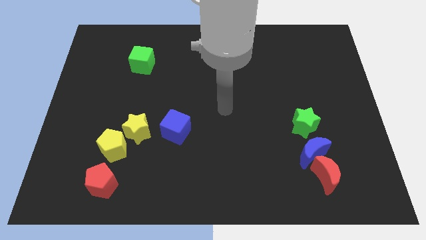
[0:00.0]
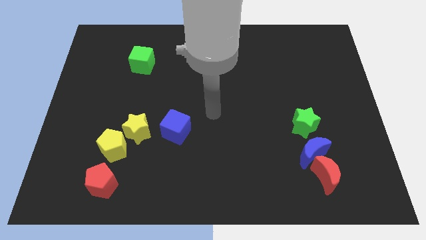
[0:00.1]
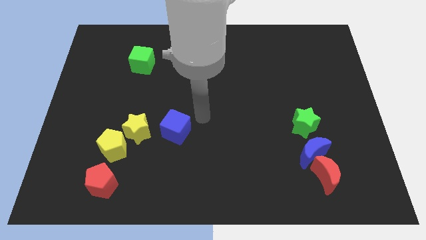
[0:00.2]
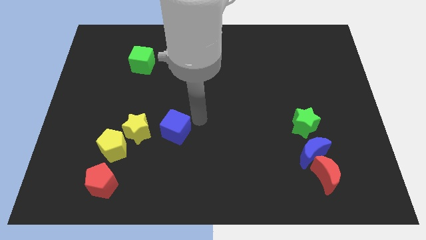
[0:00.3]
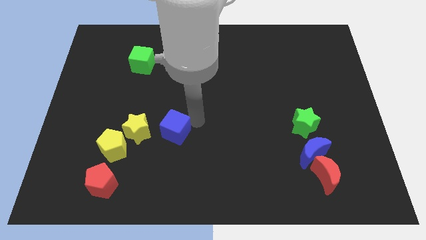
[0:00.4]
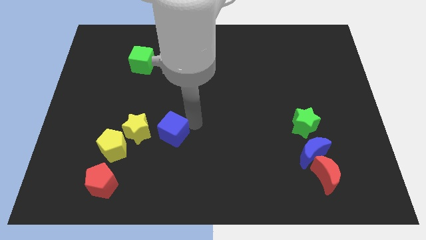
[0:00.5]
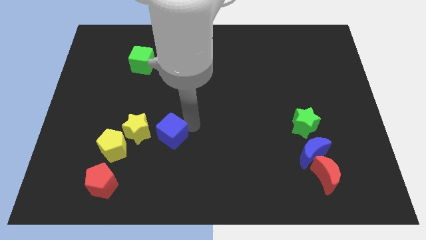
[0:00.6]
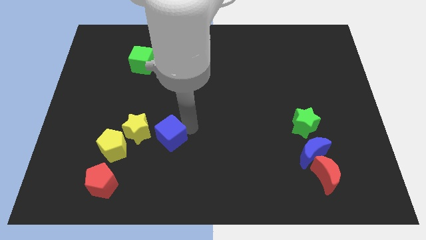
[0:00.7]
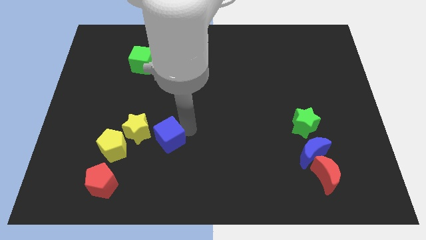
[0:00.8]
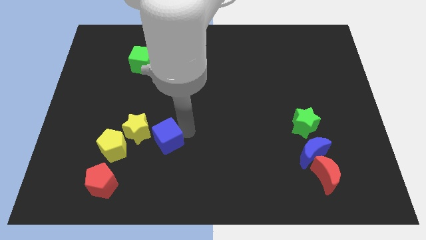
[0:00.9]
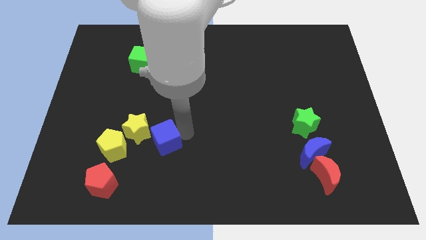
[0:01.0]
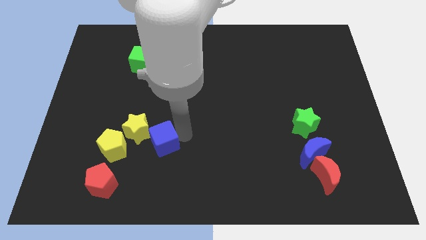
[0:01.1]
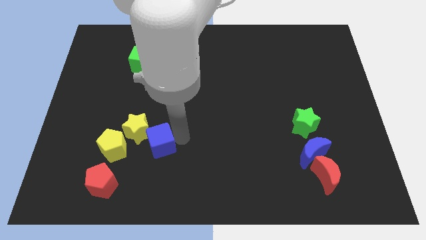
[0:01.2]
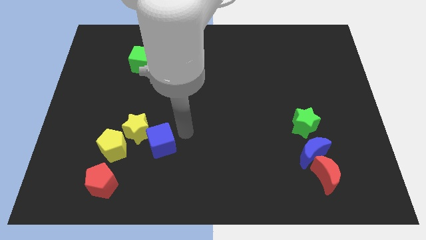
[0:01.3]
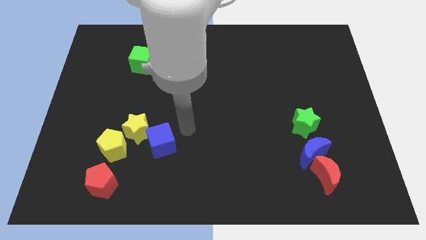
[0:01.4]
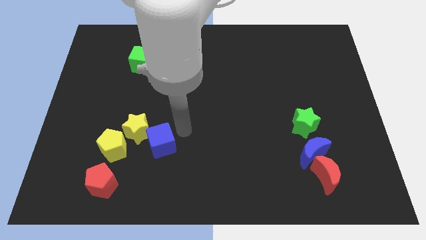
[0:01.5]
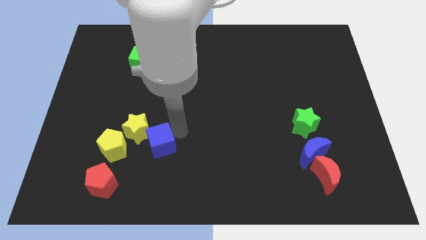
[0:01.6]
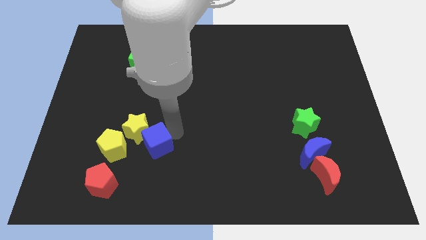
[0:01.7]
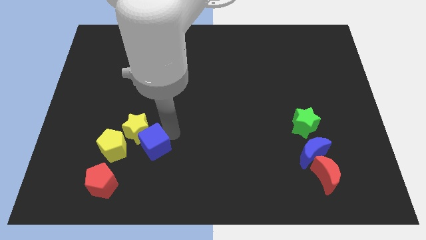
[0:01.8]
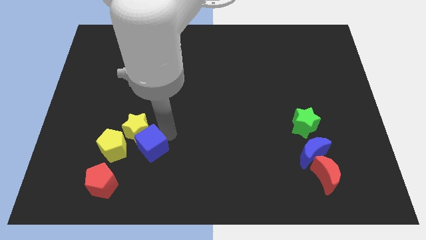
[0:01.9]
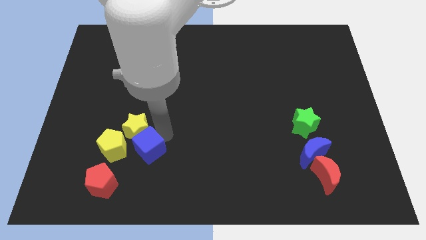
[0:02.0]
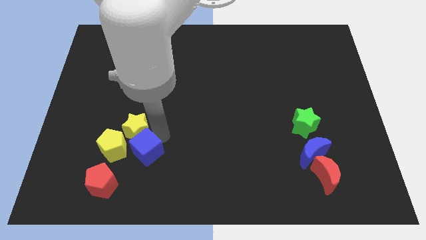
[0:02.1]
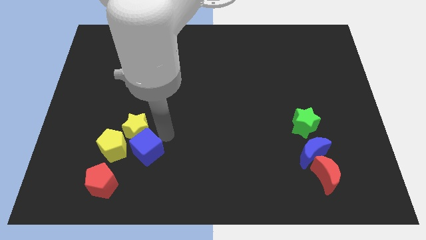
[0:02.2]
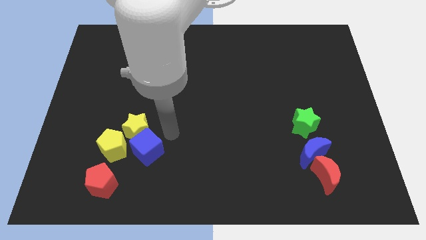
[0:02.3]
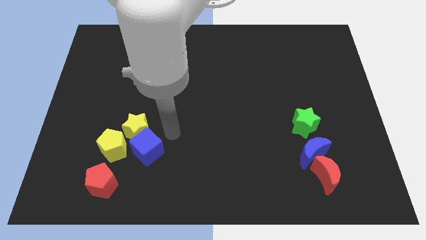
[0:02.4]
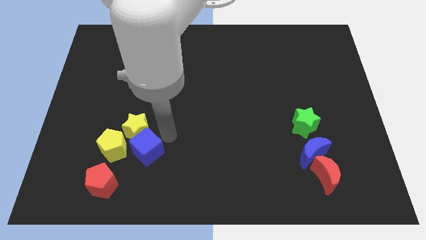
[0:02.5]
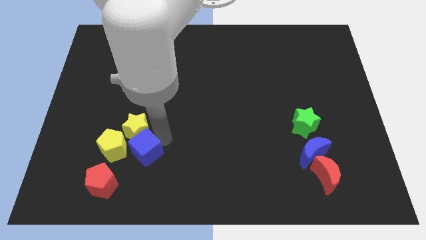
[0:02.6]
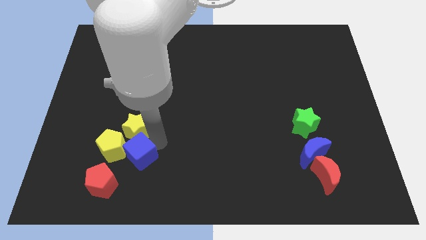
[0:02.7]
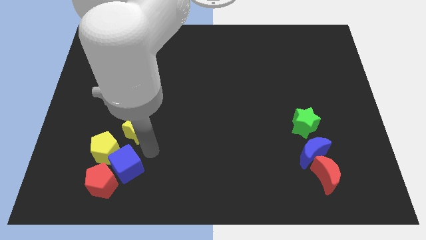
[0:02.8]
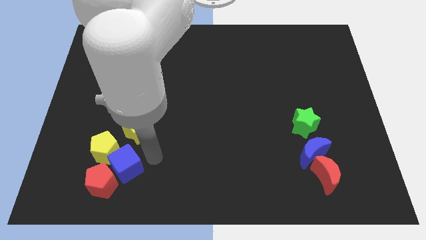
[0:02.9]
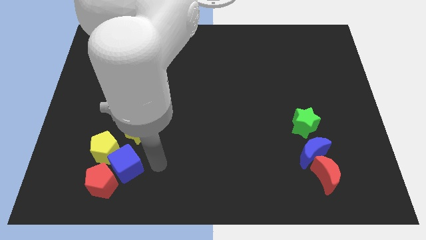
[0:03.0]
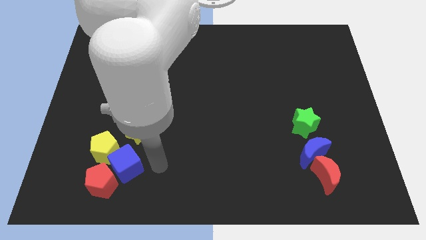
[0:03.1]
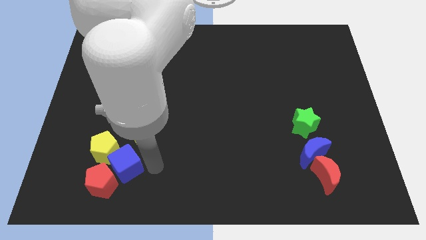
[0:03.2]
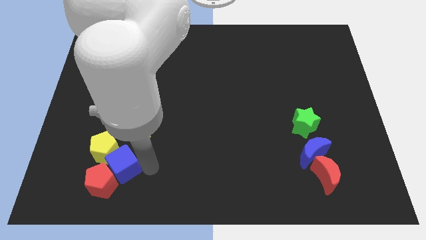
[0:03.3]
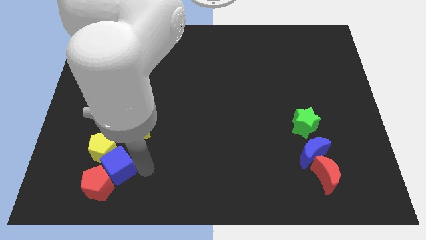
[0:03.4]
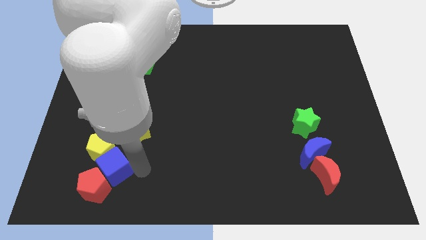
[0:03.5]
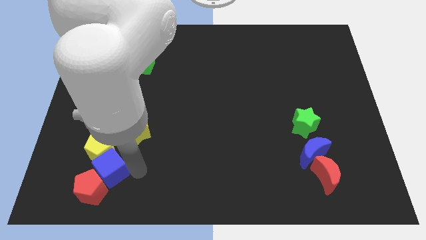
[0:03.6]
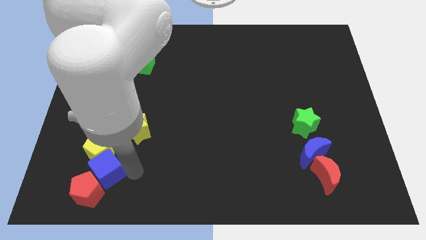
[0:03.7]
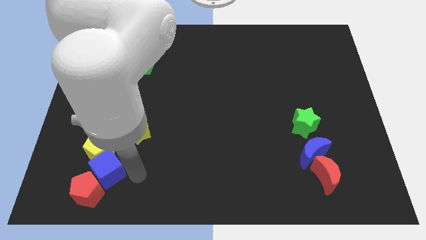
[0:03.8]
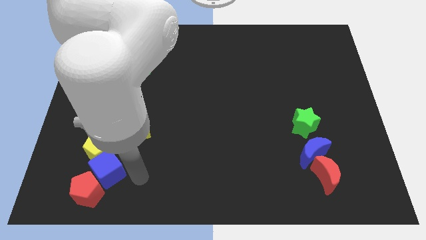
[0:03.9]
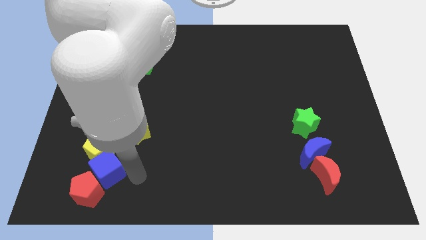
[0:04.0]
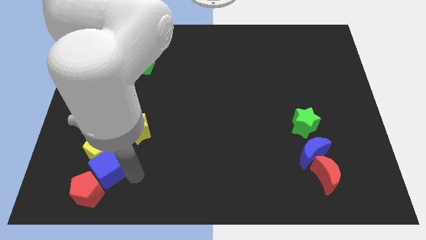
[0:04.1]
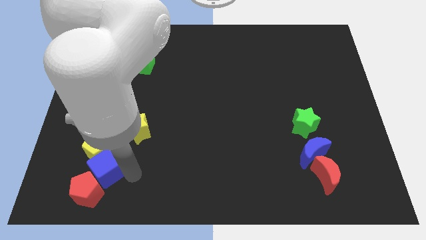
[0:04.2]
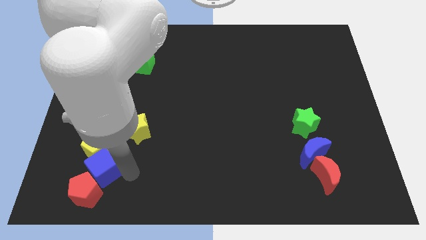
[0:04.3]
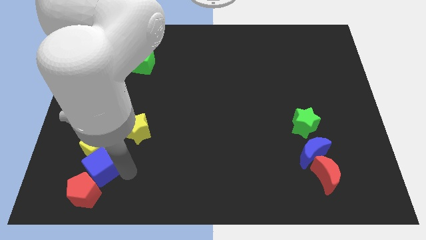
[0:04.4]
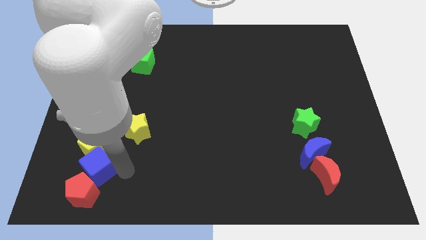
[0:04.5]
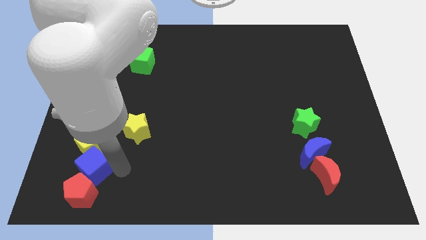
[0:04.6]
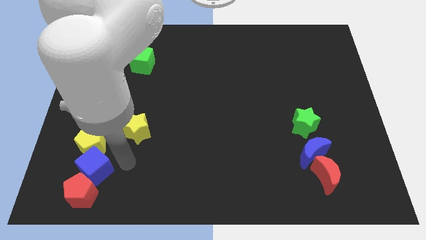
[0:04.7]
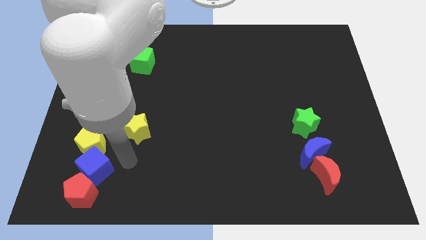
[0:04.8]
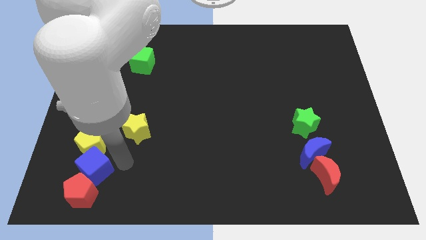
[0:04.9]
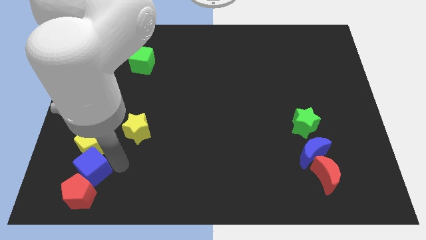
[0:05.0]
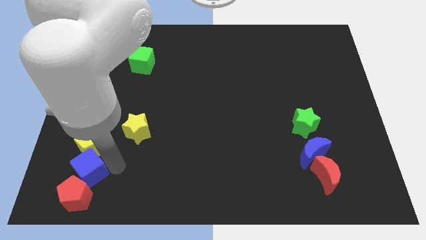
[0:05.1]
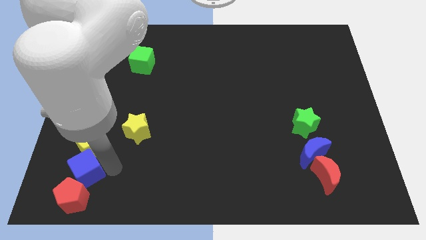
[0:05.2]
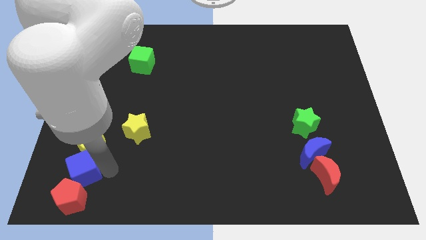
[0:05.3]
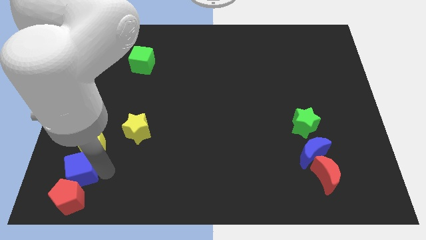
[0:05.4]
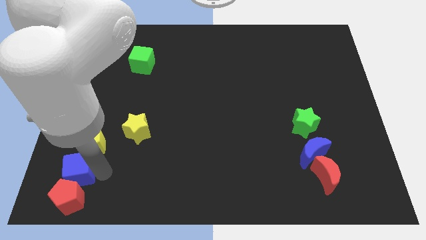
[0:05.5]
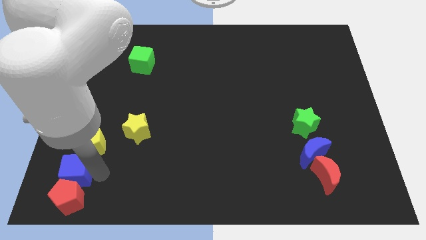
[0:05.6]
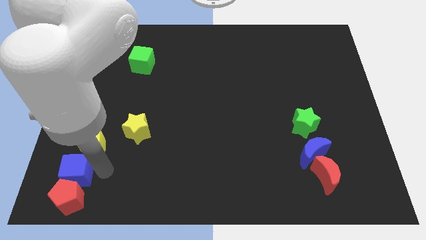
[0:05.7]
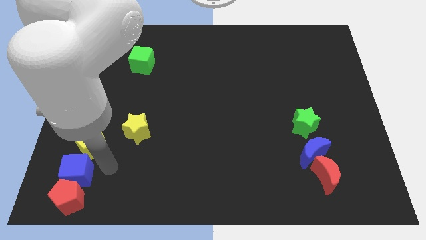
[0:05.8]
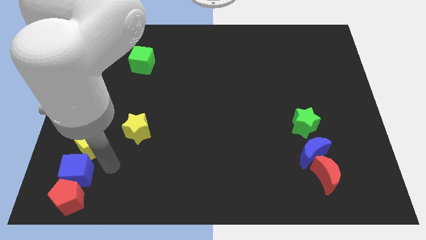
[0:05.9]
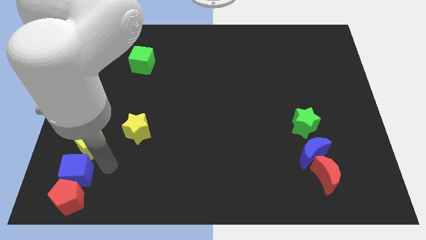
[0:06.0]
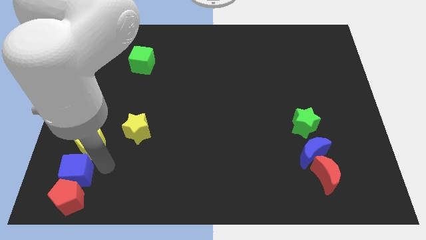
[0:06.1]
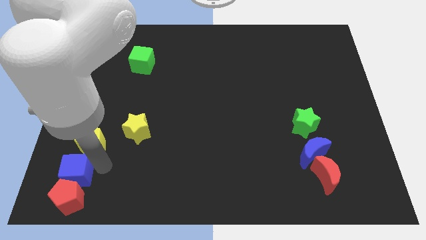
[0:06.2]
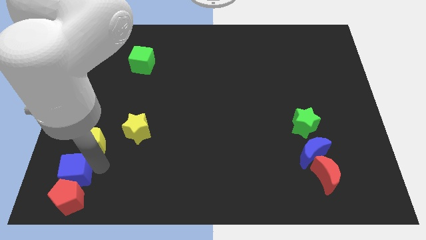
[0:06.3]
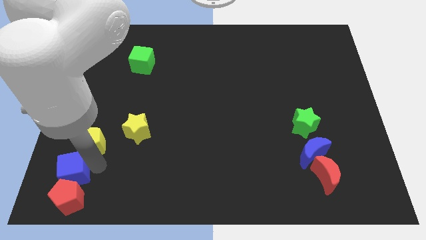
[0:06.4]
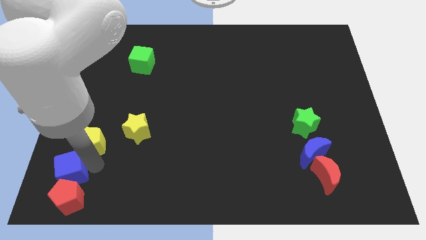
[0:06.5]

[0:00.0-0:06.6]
put the blue cube to the bottom left corner

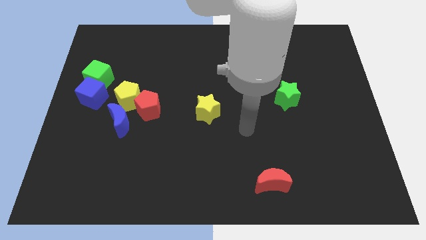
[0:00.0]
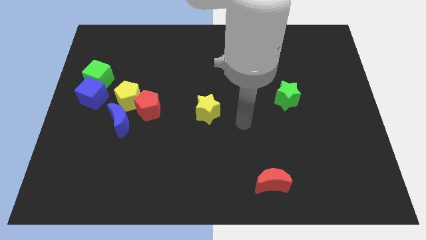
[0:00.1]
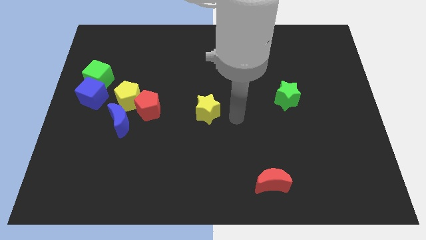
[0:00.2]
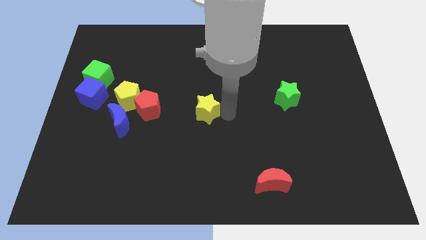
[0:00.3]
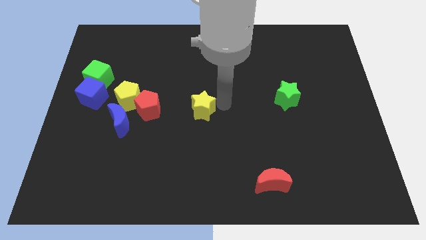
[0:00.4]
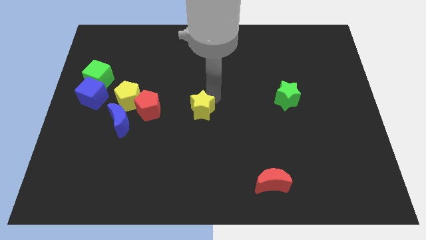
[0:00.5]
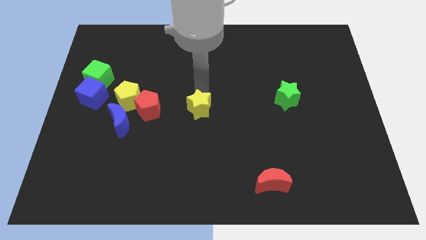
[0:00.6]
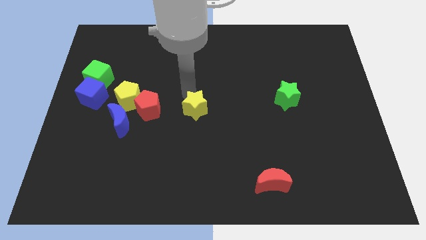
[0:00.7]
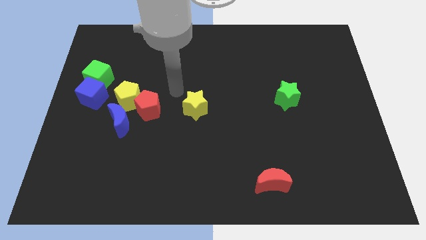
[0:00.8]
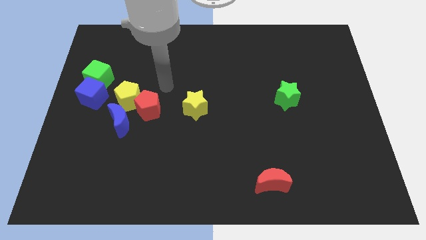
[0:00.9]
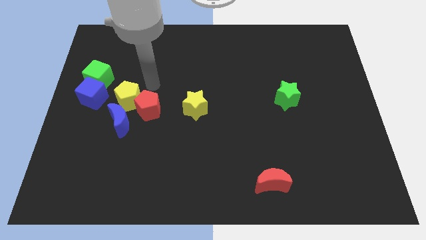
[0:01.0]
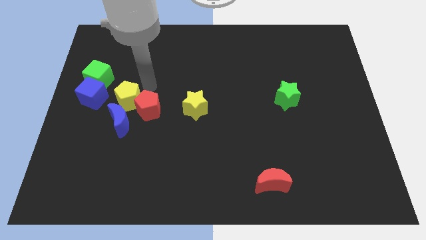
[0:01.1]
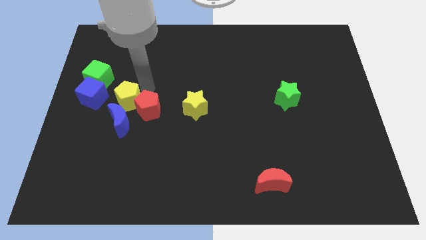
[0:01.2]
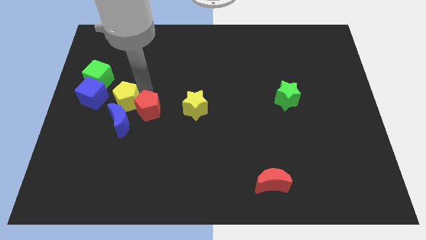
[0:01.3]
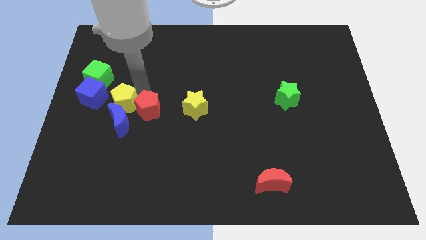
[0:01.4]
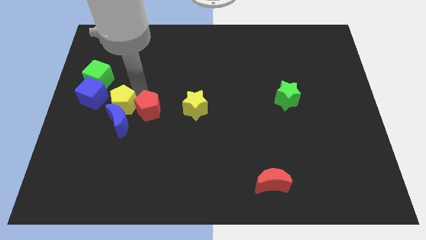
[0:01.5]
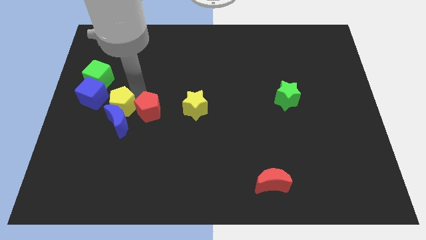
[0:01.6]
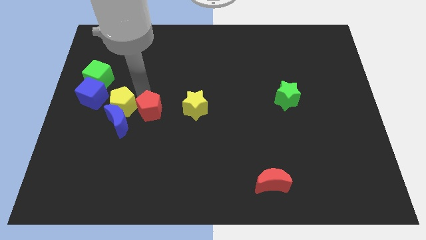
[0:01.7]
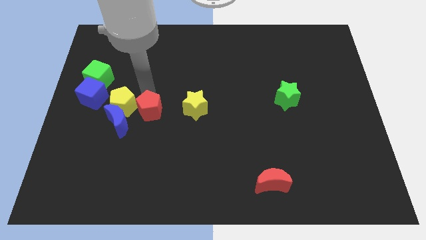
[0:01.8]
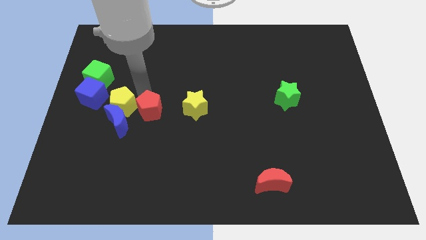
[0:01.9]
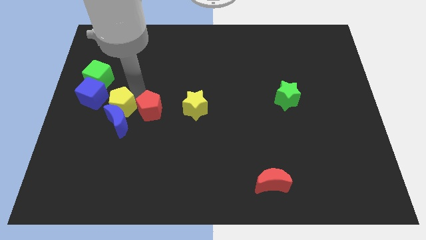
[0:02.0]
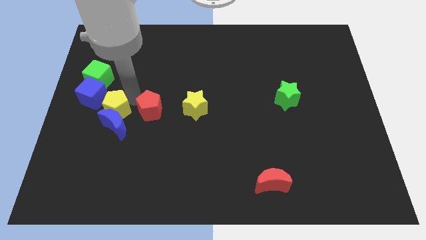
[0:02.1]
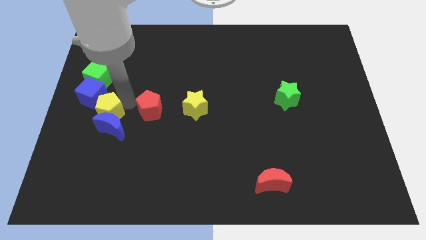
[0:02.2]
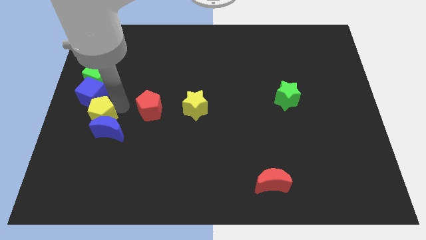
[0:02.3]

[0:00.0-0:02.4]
push the yellow pentagon to the left side
